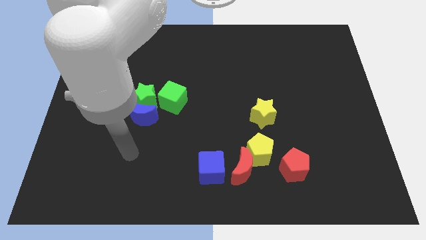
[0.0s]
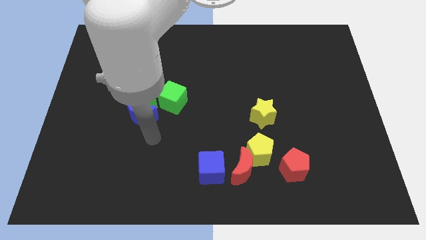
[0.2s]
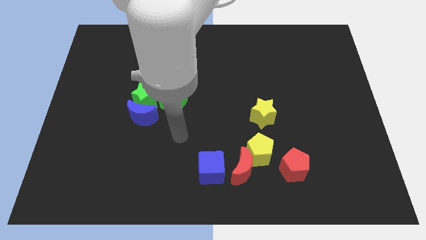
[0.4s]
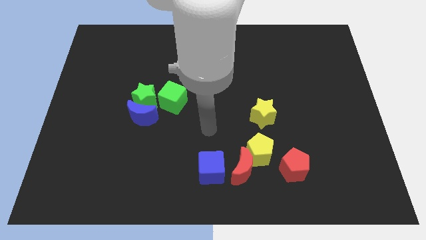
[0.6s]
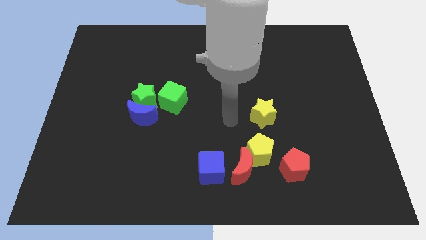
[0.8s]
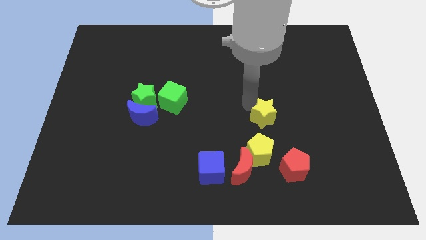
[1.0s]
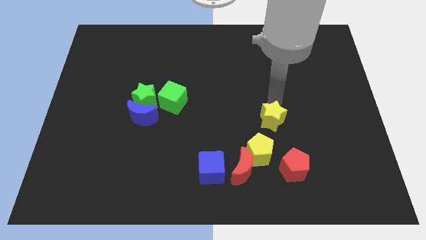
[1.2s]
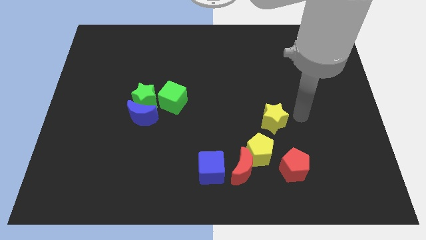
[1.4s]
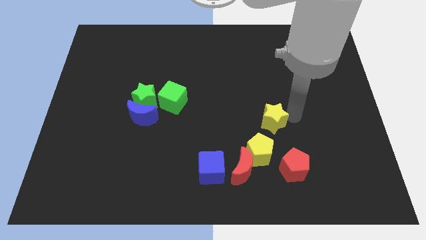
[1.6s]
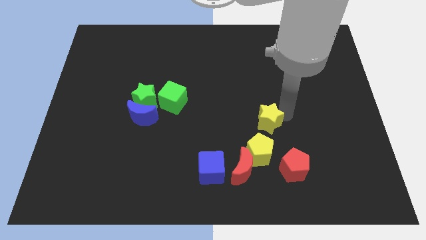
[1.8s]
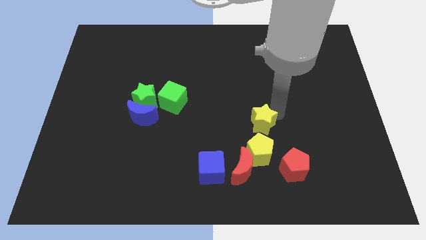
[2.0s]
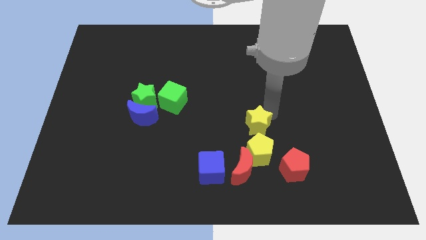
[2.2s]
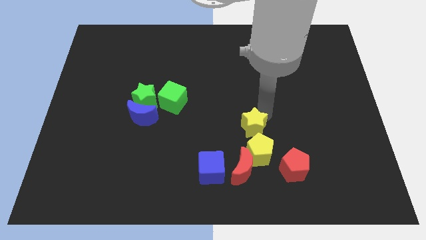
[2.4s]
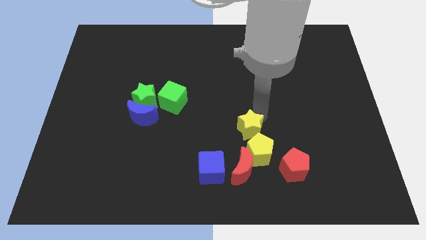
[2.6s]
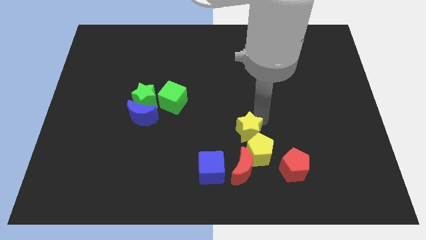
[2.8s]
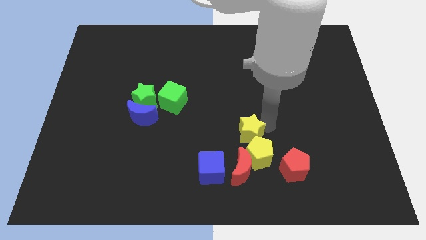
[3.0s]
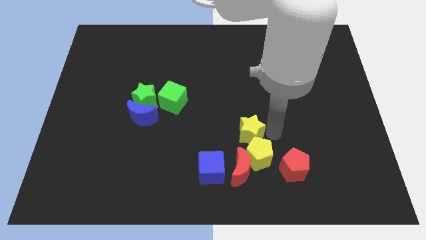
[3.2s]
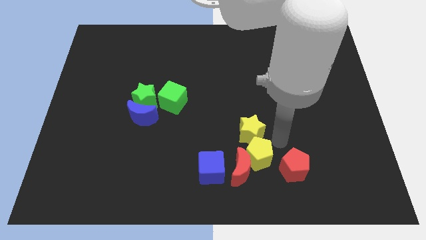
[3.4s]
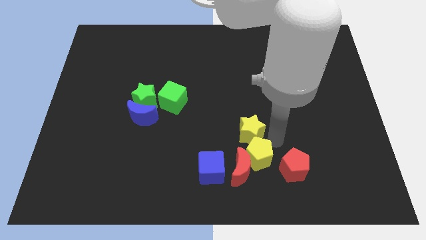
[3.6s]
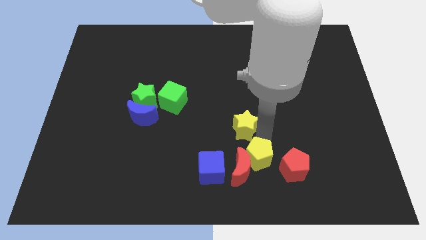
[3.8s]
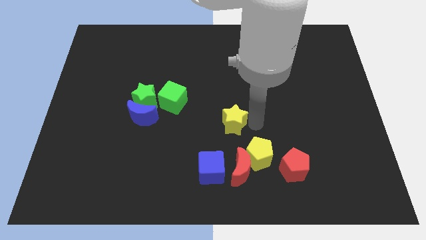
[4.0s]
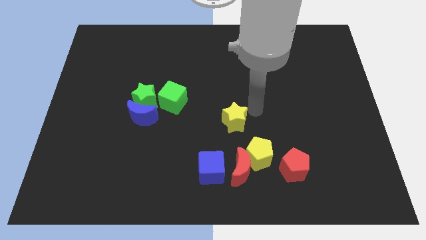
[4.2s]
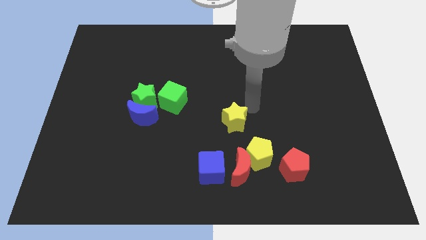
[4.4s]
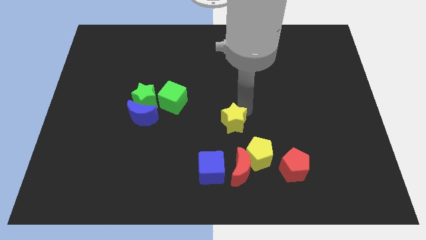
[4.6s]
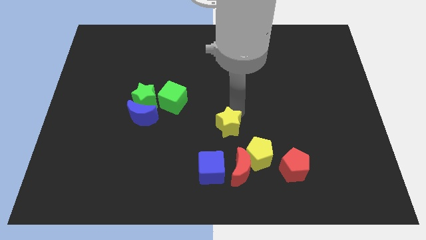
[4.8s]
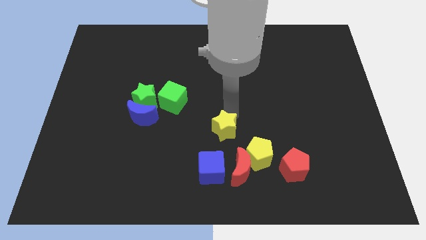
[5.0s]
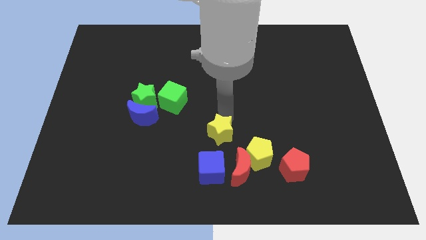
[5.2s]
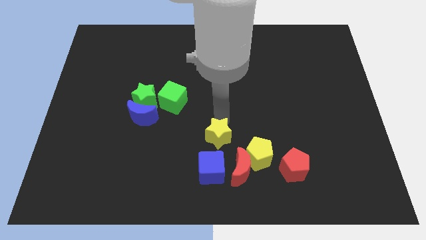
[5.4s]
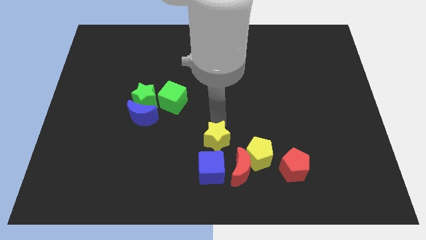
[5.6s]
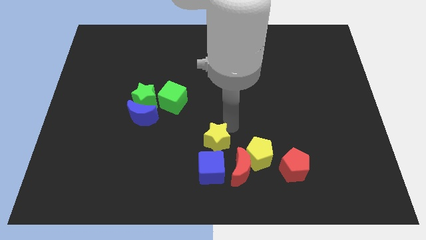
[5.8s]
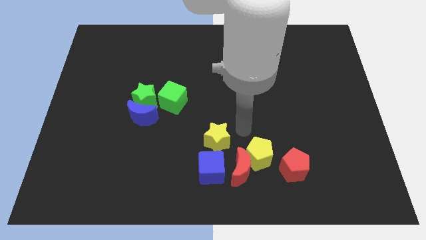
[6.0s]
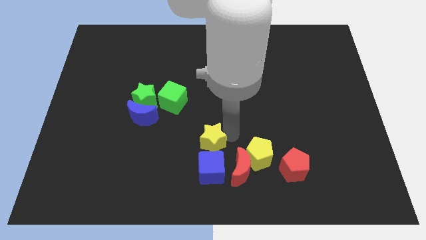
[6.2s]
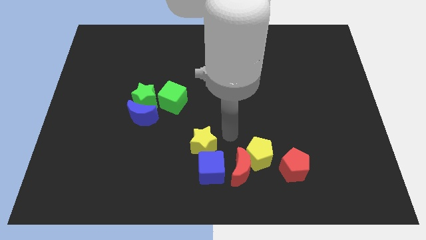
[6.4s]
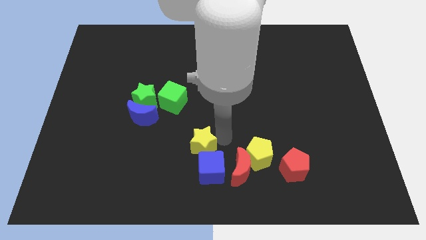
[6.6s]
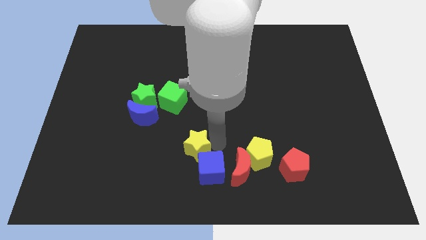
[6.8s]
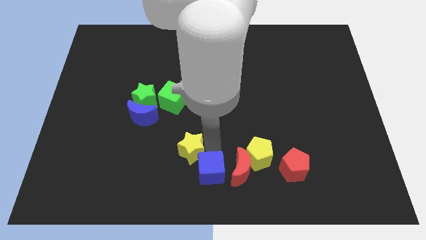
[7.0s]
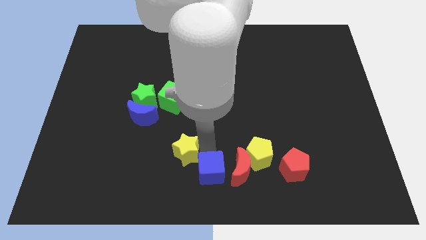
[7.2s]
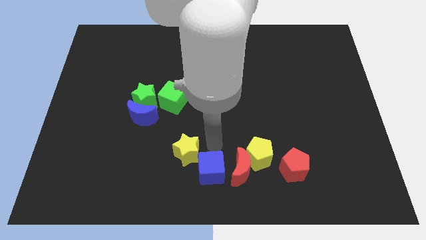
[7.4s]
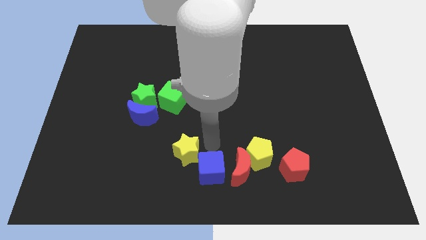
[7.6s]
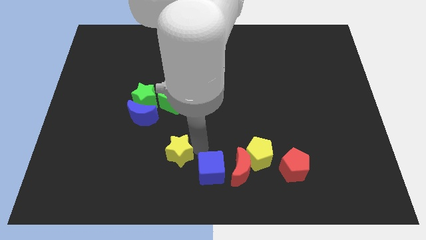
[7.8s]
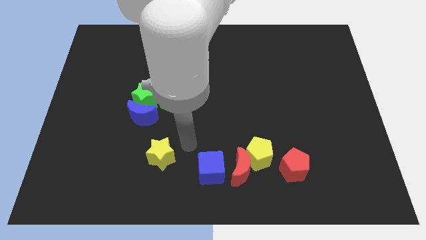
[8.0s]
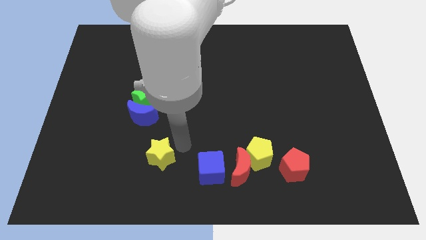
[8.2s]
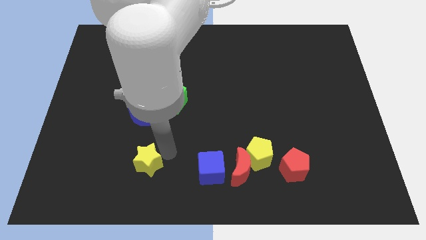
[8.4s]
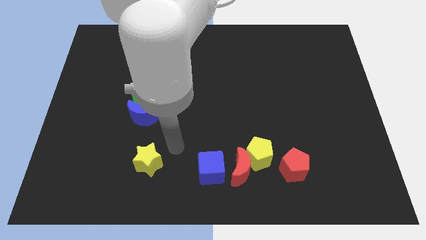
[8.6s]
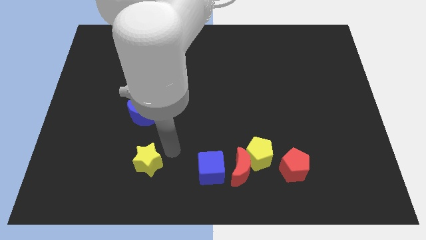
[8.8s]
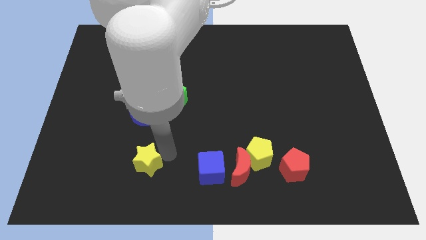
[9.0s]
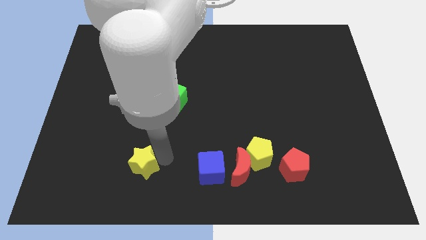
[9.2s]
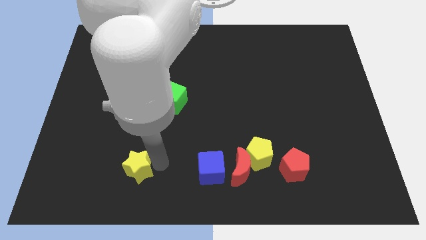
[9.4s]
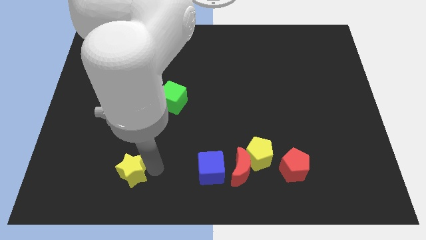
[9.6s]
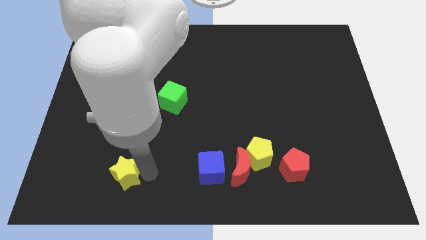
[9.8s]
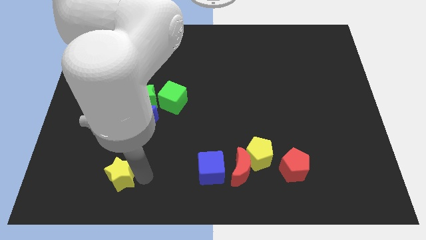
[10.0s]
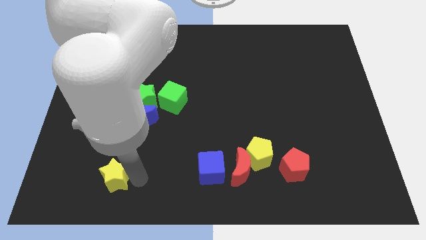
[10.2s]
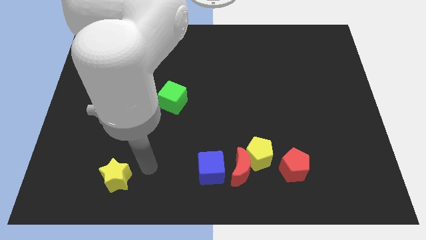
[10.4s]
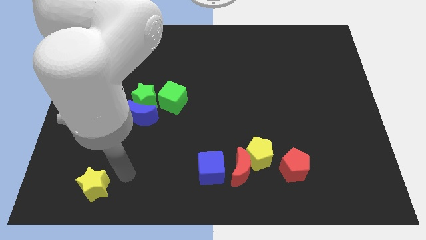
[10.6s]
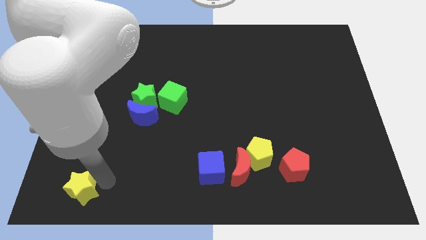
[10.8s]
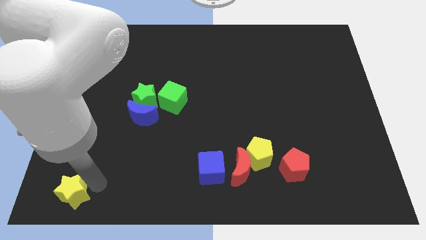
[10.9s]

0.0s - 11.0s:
slide the yellow star to the lower left corner
